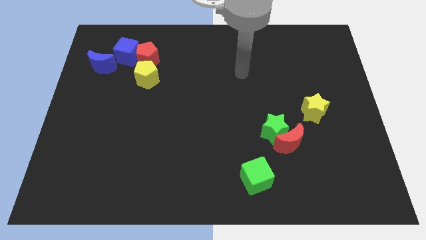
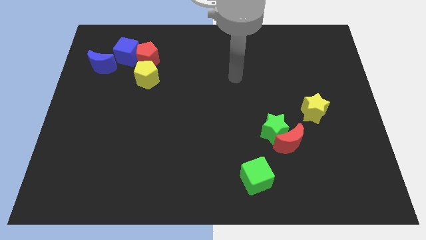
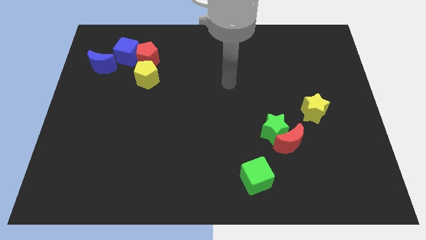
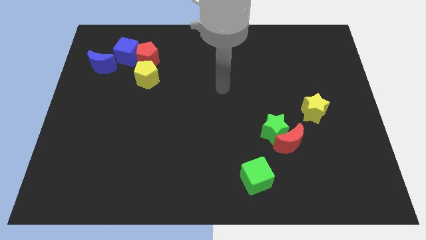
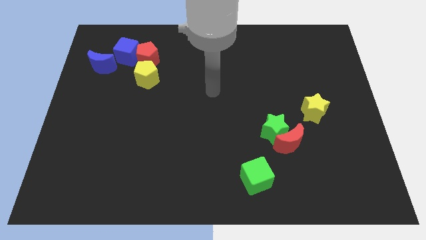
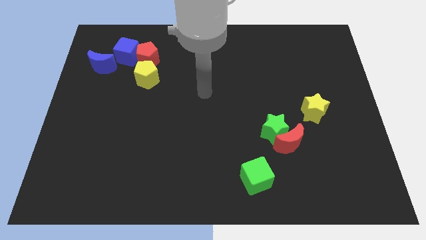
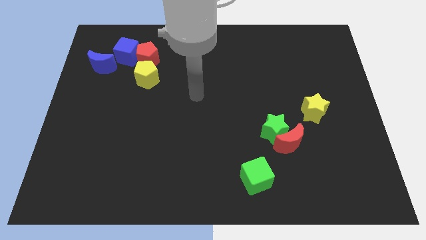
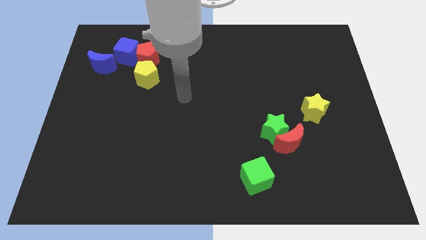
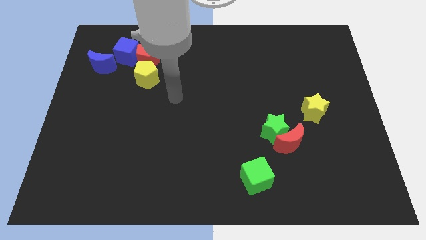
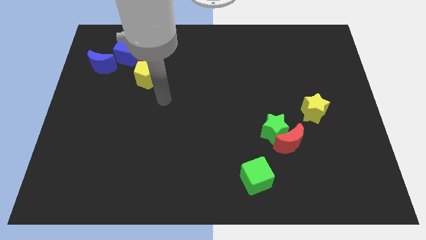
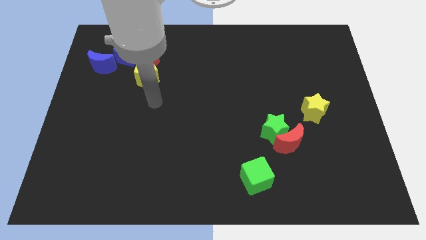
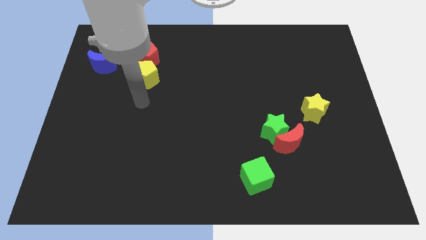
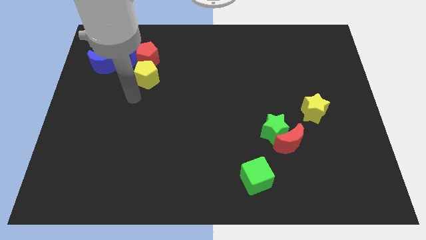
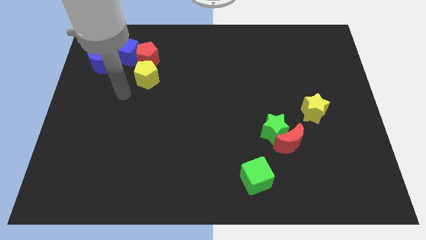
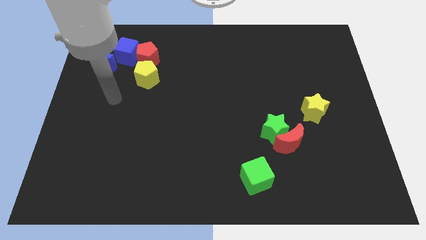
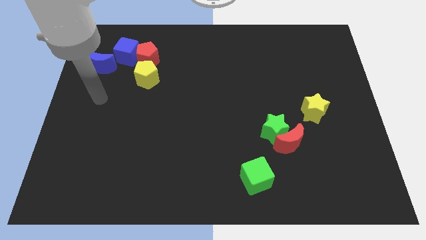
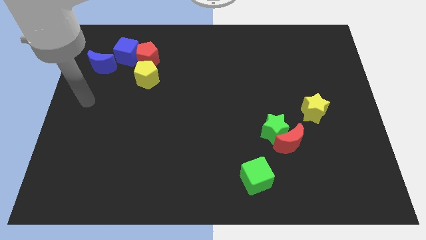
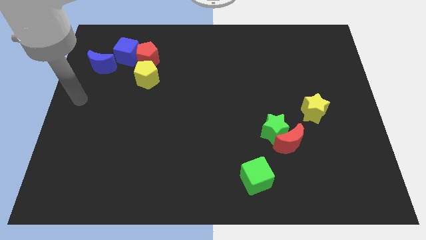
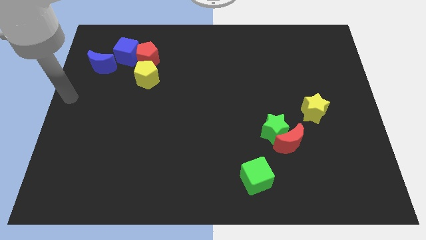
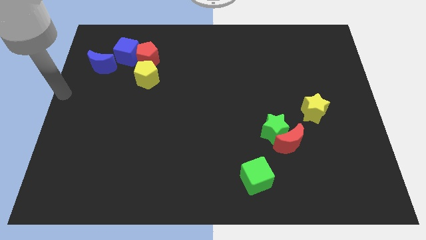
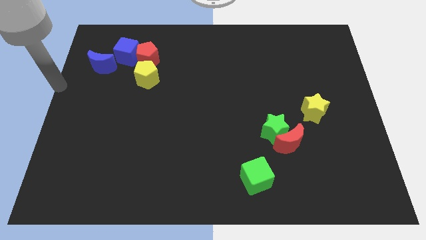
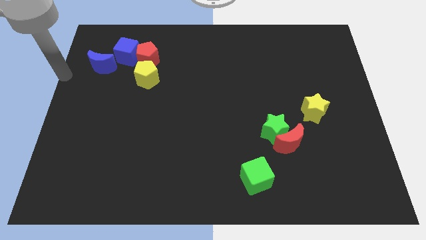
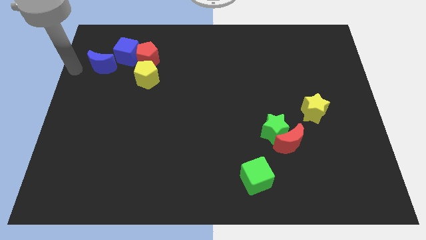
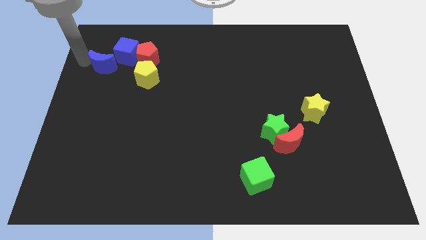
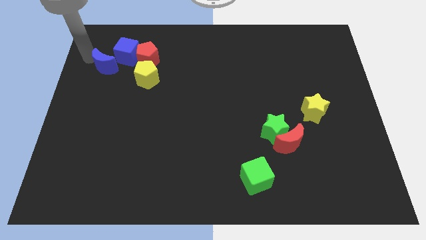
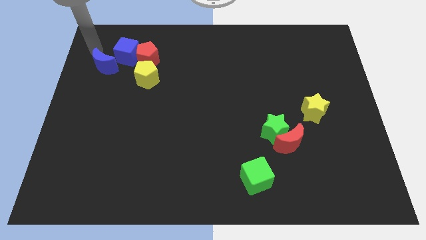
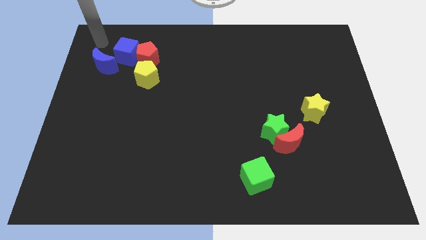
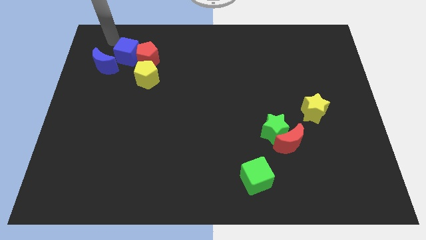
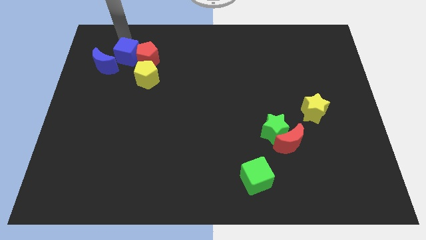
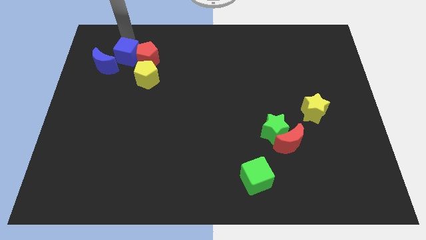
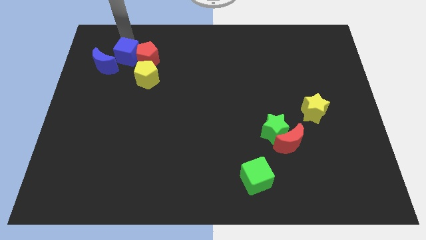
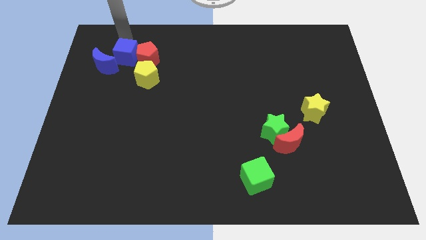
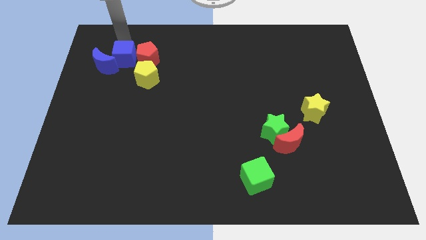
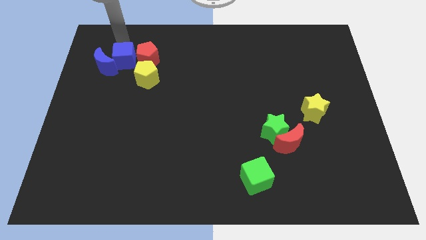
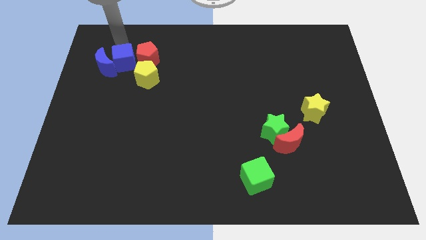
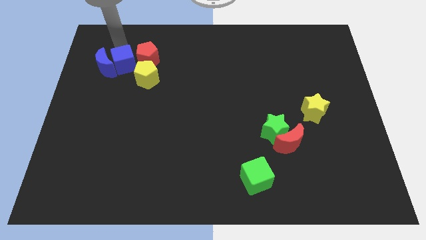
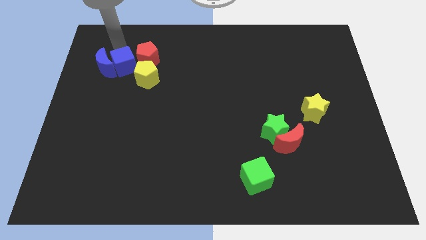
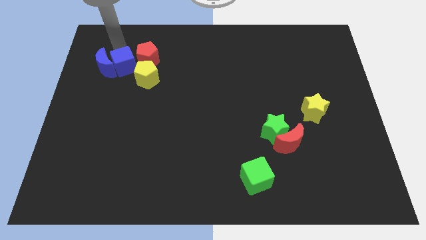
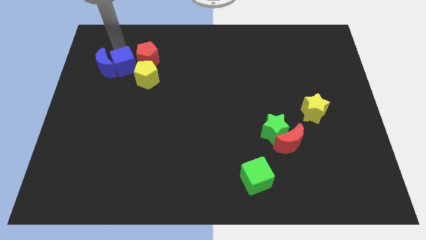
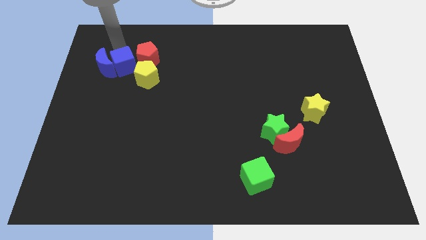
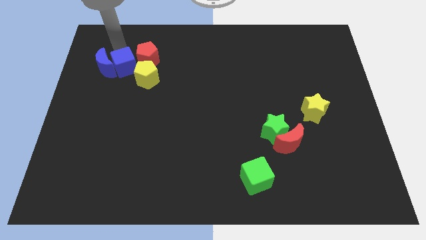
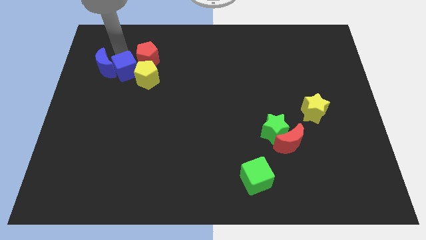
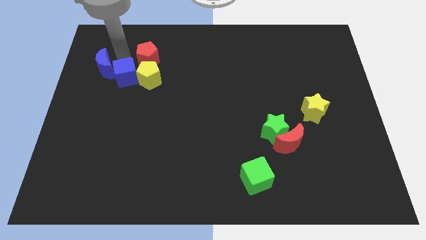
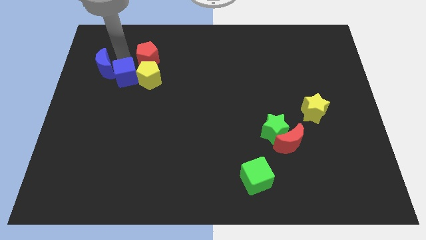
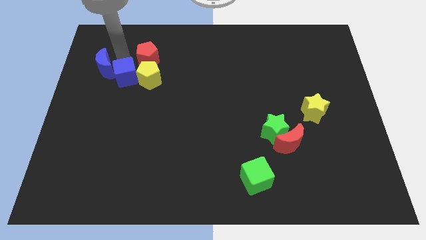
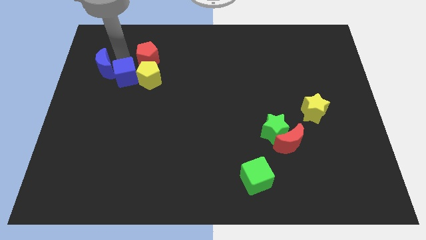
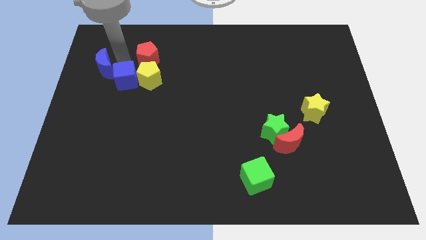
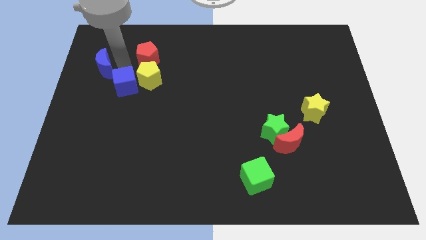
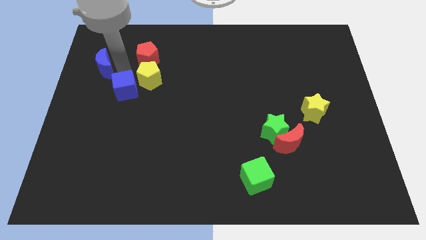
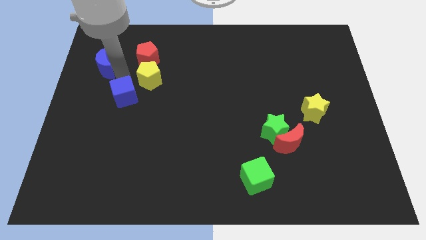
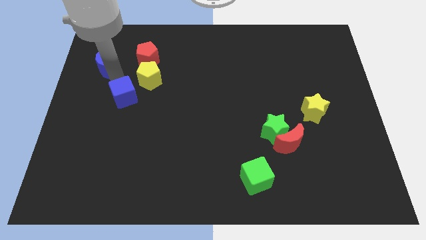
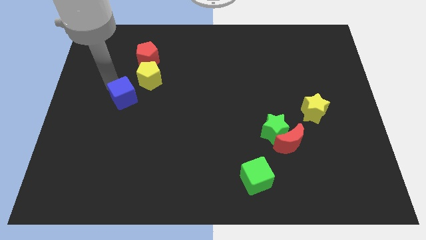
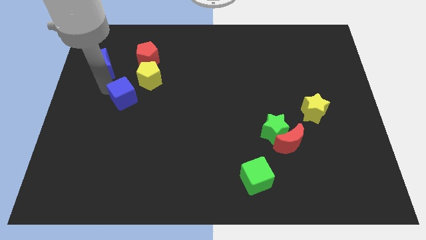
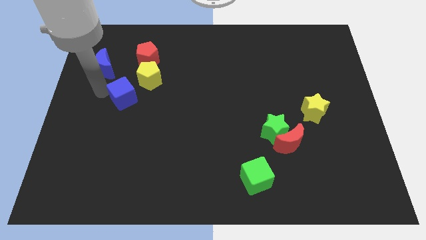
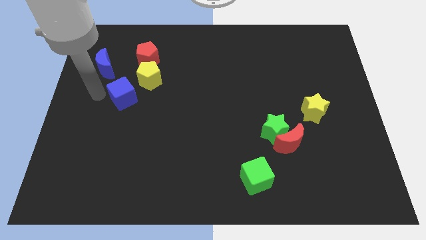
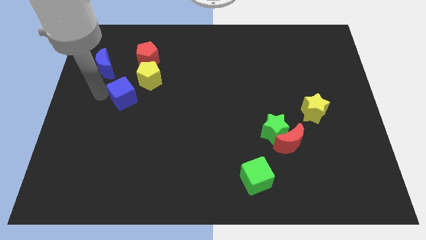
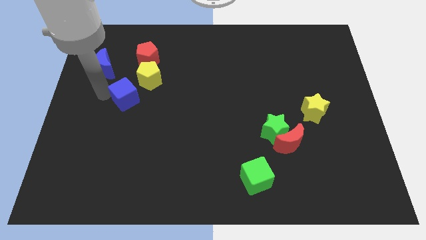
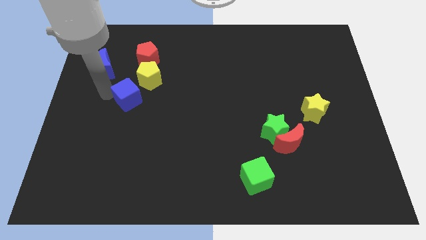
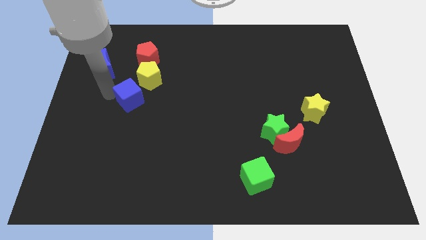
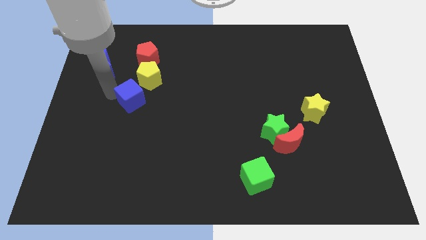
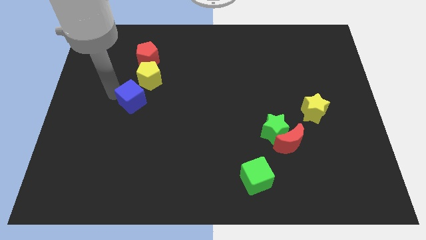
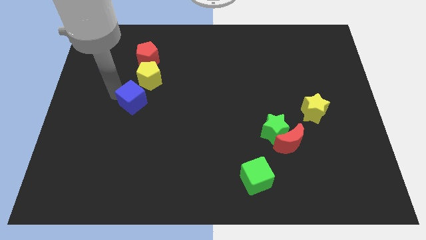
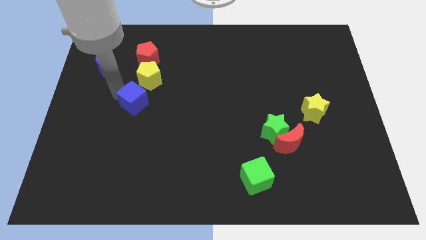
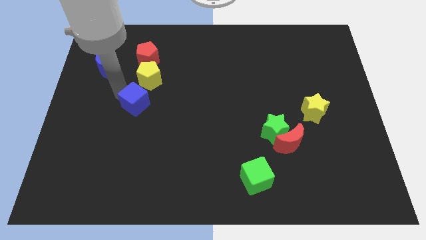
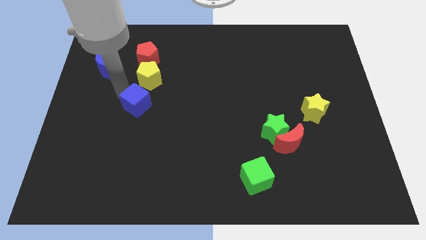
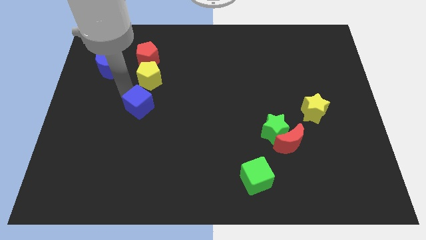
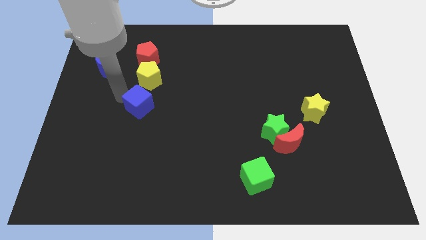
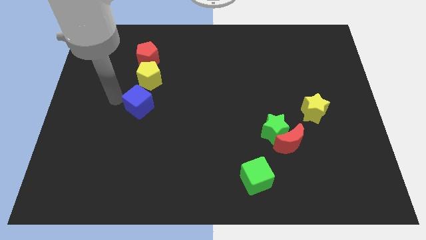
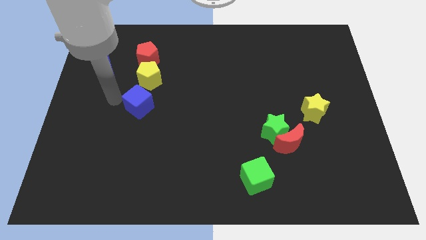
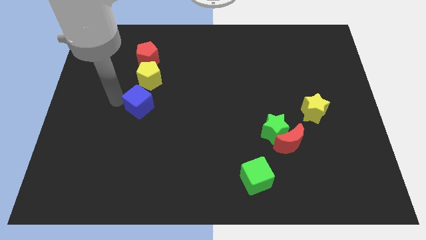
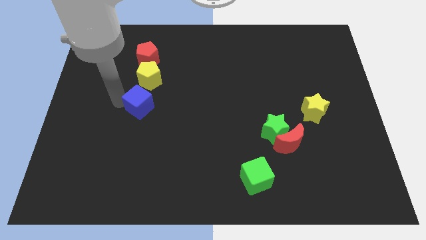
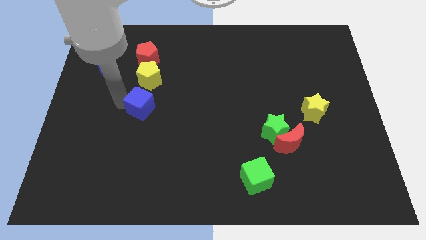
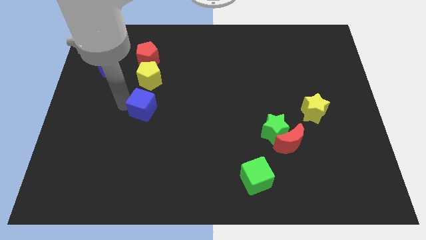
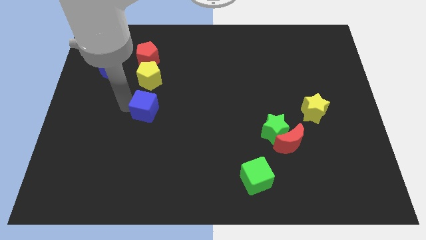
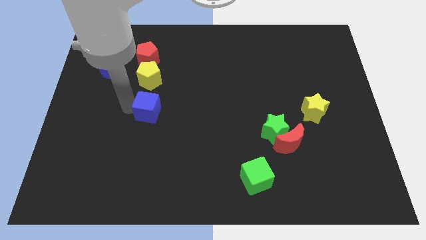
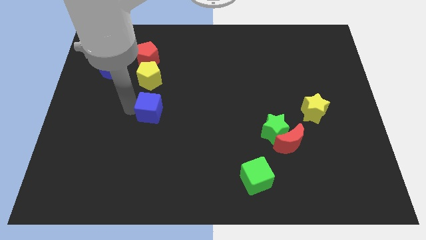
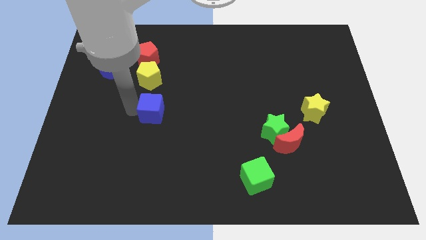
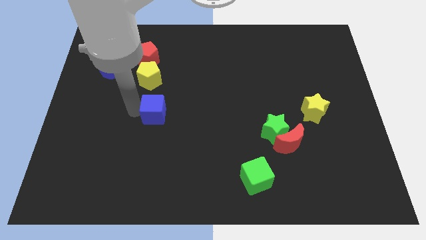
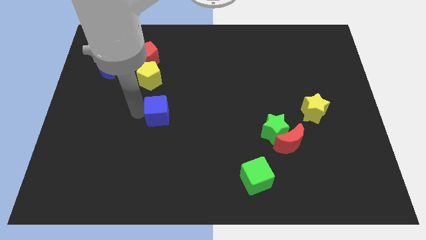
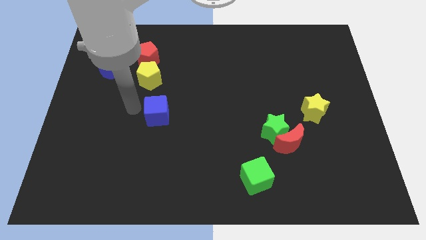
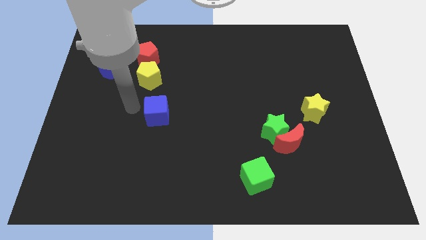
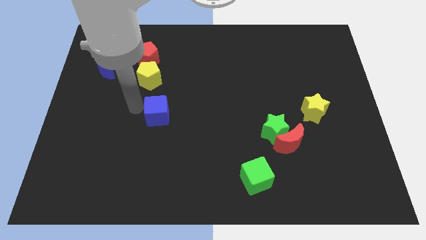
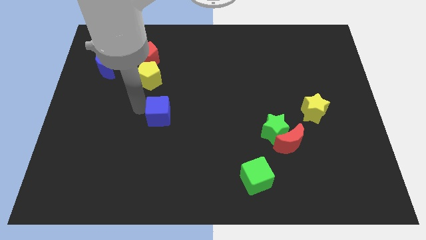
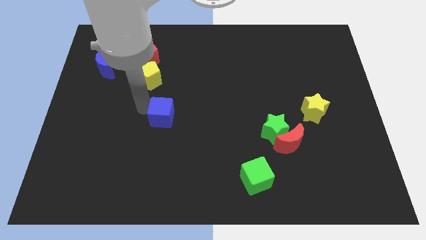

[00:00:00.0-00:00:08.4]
slide the blue cube diagonally down and right
